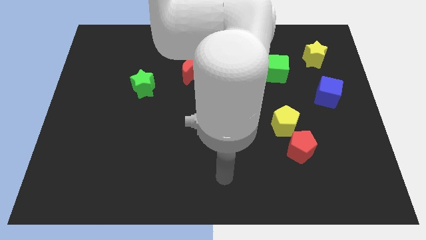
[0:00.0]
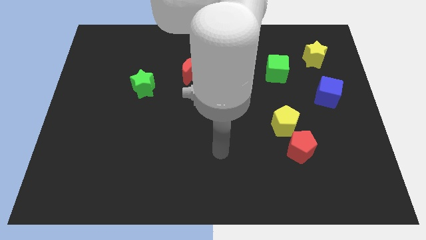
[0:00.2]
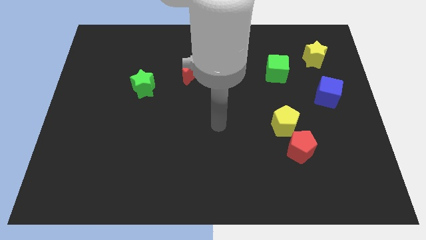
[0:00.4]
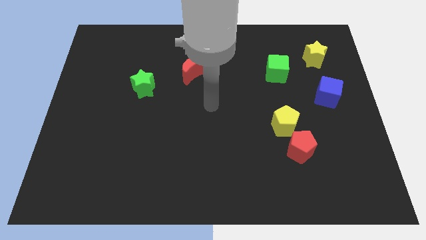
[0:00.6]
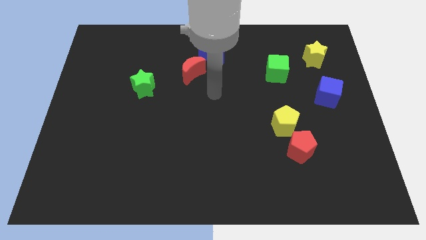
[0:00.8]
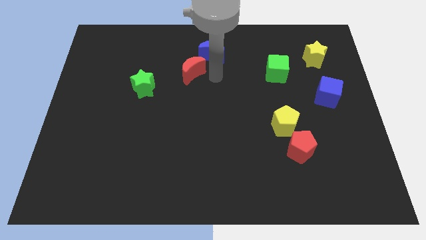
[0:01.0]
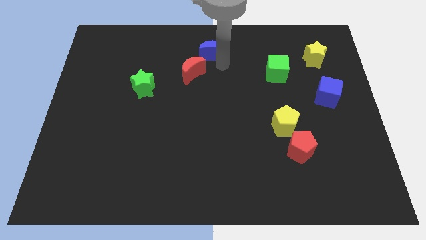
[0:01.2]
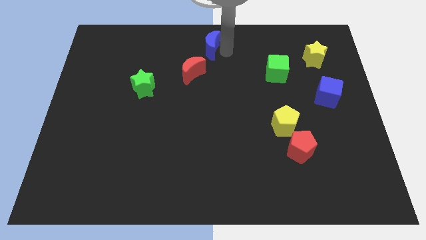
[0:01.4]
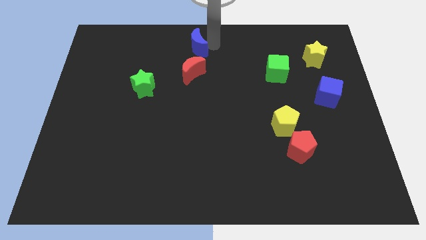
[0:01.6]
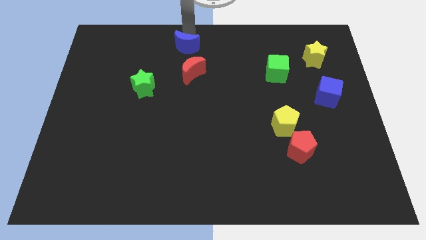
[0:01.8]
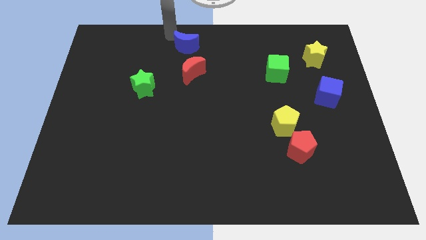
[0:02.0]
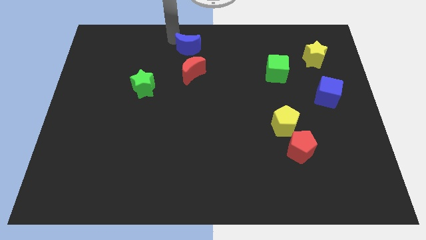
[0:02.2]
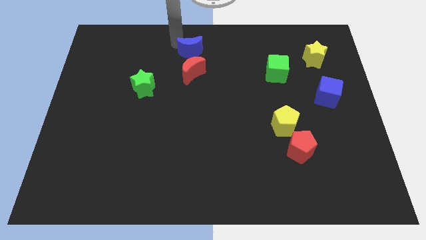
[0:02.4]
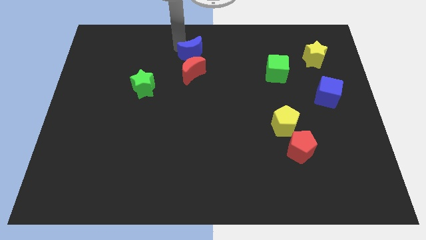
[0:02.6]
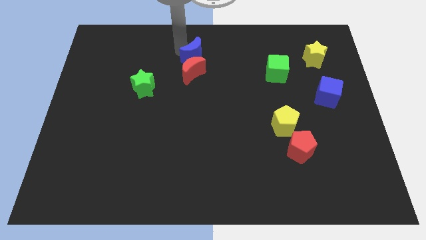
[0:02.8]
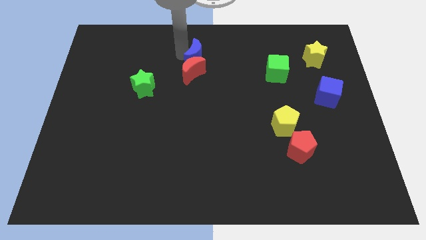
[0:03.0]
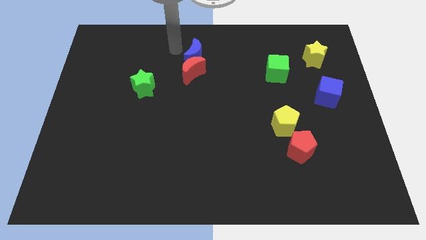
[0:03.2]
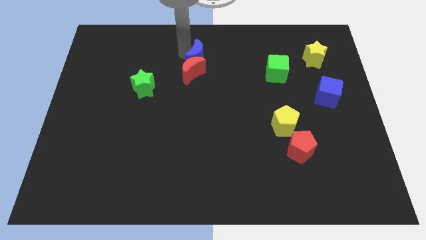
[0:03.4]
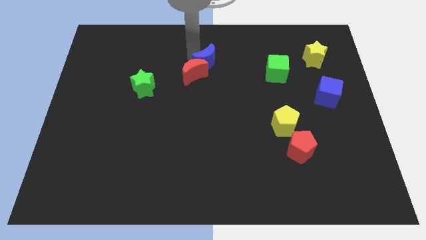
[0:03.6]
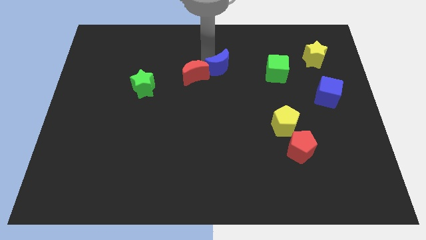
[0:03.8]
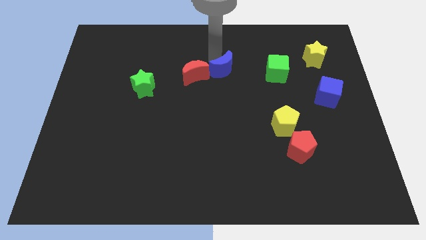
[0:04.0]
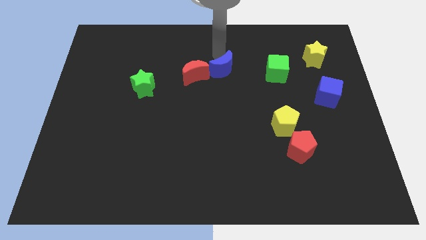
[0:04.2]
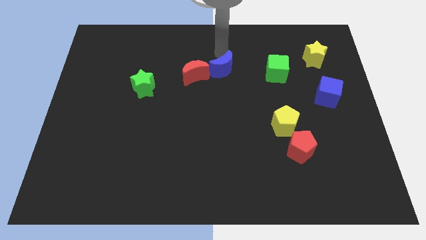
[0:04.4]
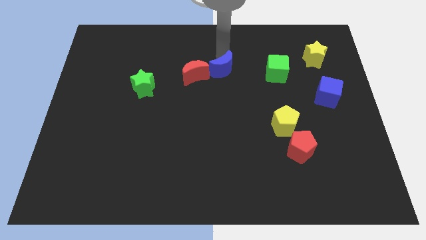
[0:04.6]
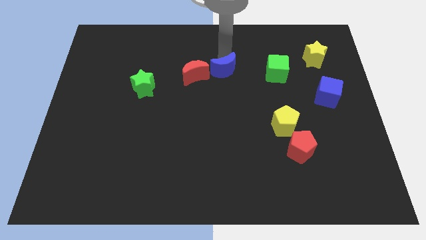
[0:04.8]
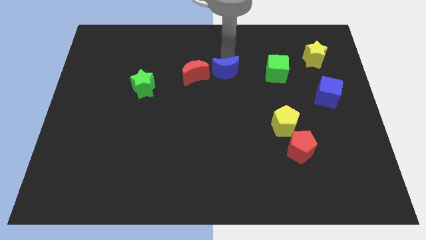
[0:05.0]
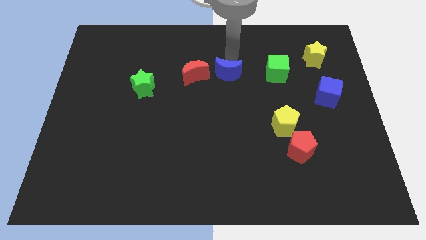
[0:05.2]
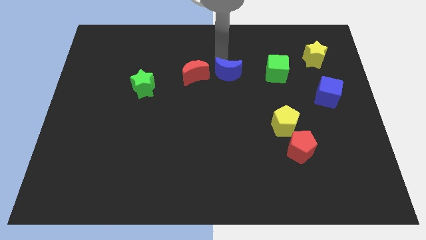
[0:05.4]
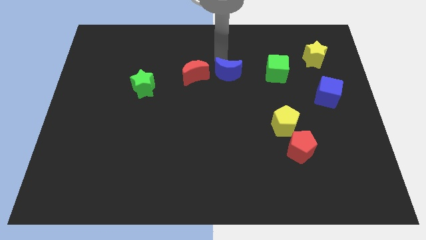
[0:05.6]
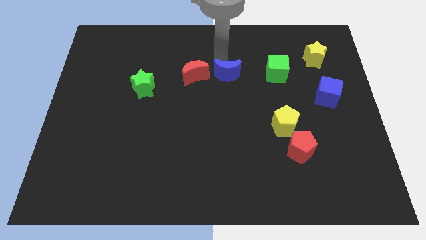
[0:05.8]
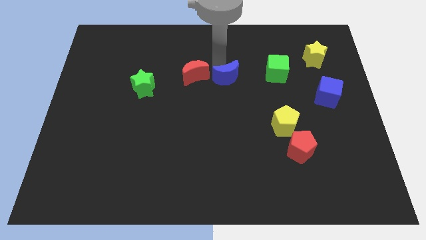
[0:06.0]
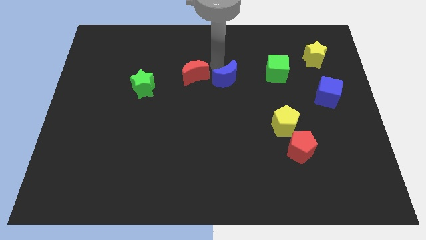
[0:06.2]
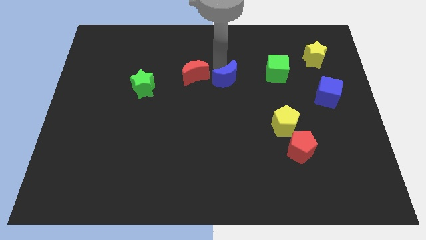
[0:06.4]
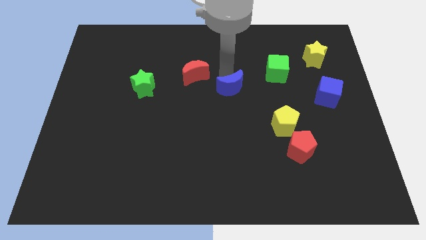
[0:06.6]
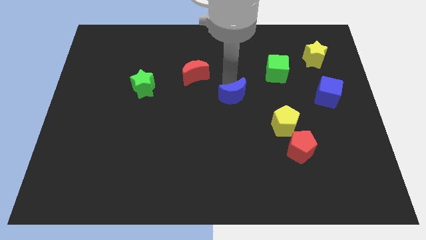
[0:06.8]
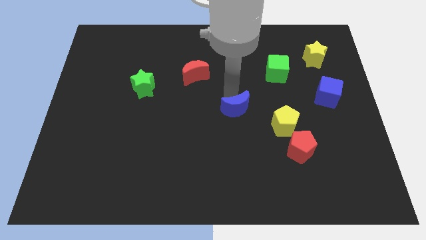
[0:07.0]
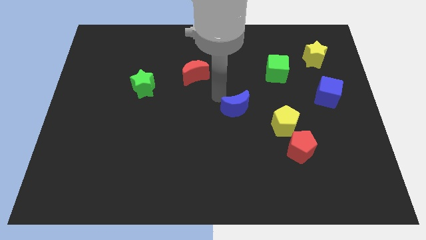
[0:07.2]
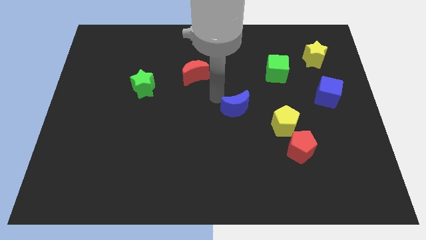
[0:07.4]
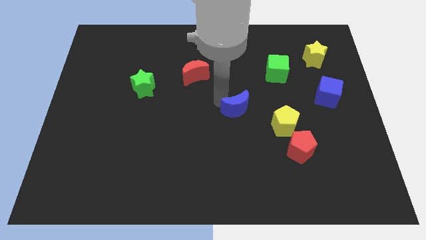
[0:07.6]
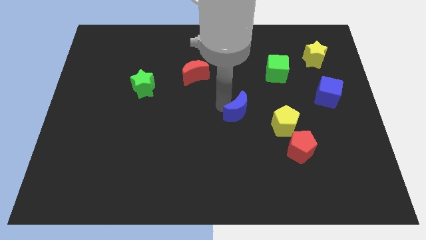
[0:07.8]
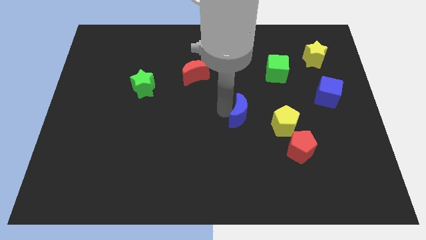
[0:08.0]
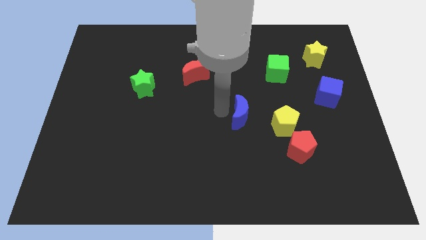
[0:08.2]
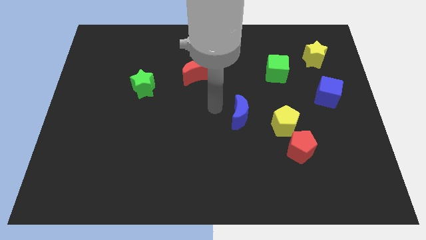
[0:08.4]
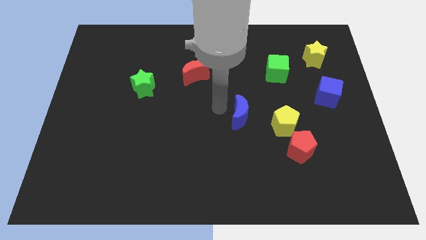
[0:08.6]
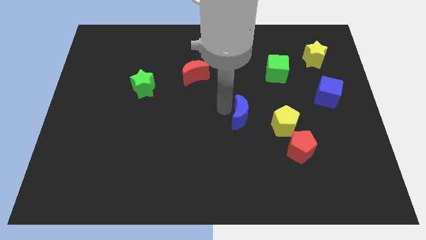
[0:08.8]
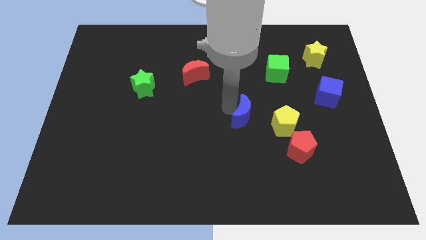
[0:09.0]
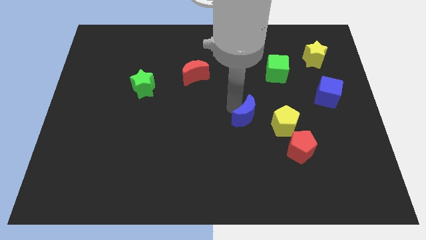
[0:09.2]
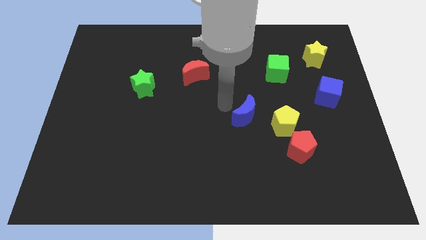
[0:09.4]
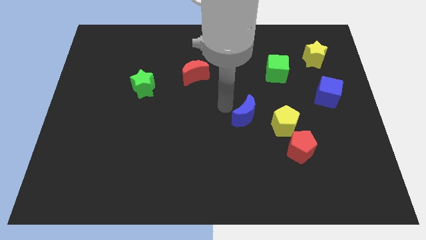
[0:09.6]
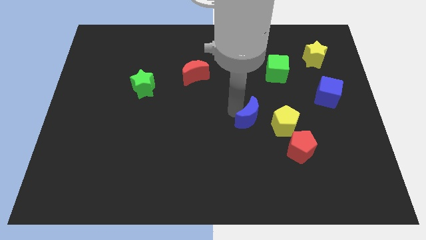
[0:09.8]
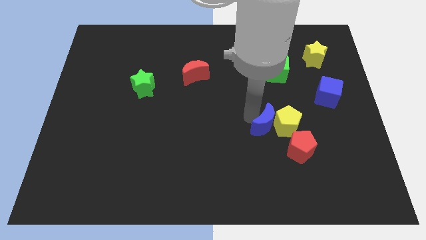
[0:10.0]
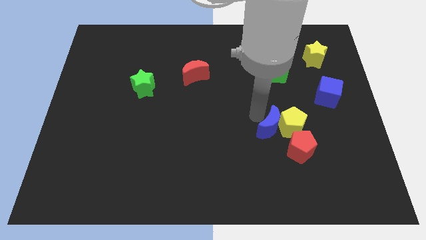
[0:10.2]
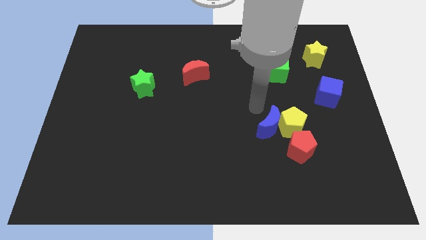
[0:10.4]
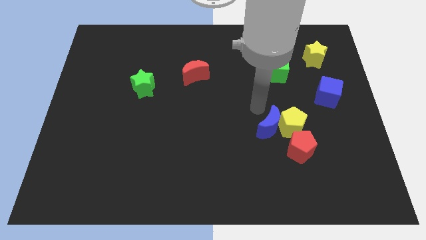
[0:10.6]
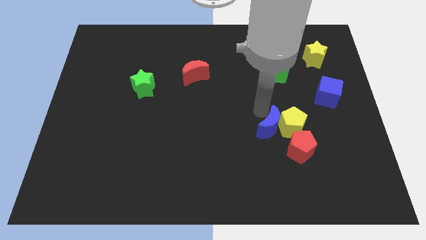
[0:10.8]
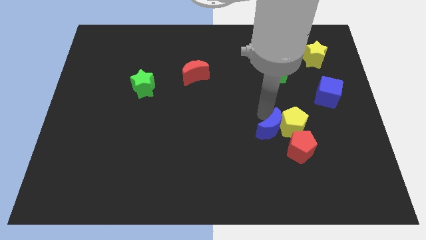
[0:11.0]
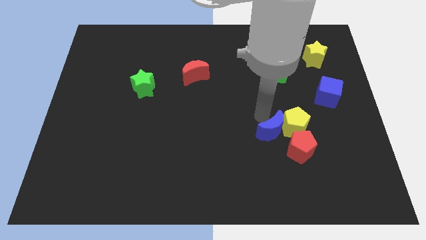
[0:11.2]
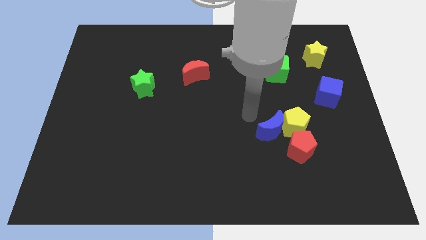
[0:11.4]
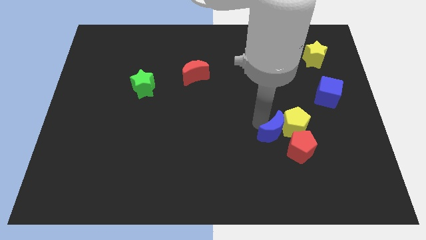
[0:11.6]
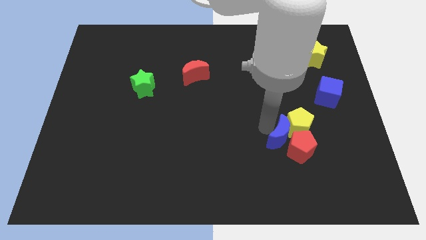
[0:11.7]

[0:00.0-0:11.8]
put the blue moon close to the red pentagon
